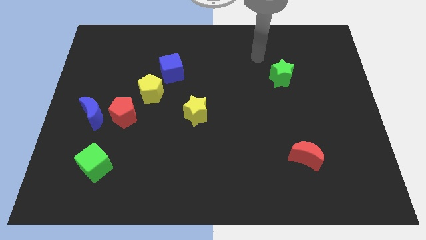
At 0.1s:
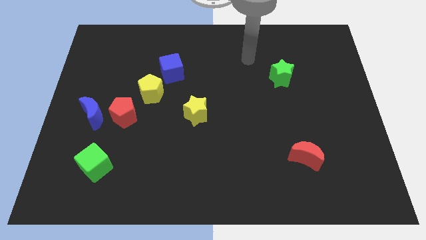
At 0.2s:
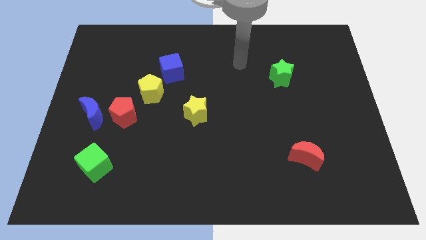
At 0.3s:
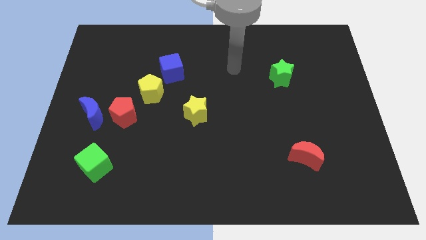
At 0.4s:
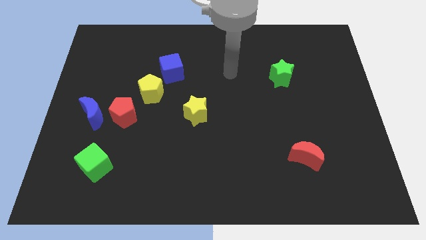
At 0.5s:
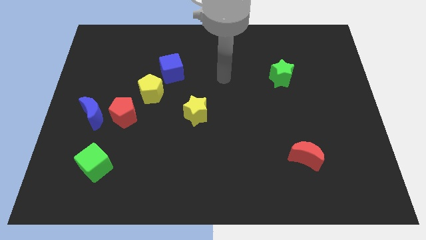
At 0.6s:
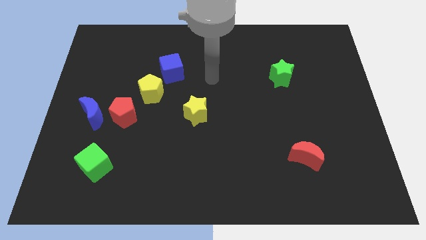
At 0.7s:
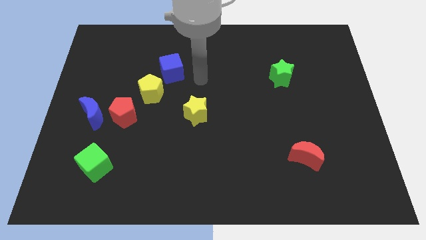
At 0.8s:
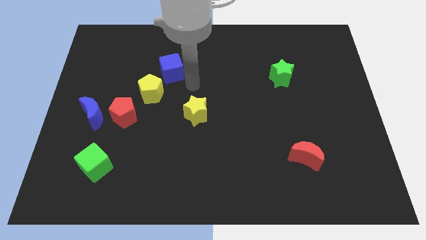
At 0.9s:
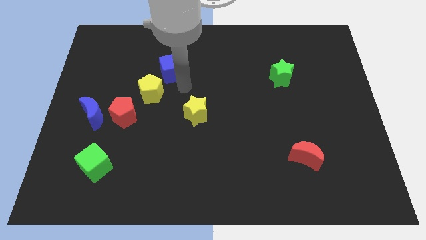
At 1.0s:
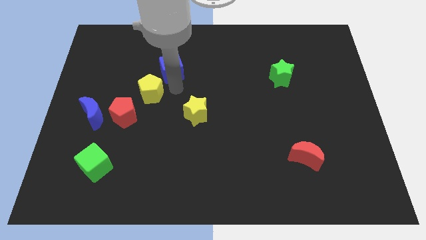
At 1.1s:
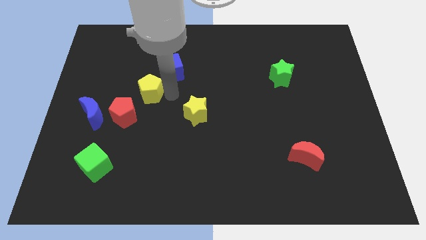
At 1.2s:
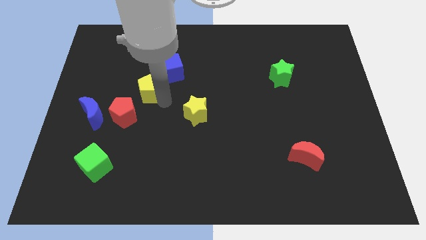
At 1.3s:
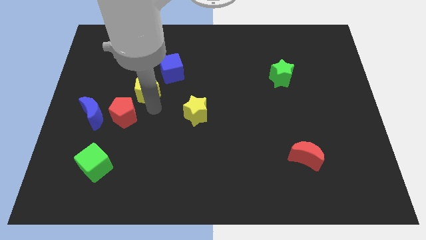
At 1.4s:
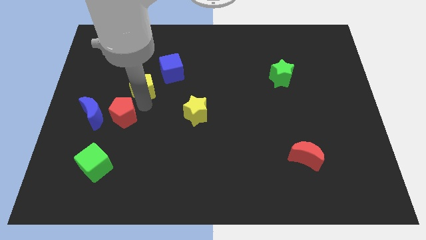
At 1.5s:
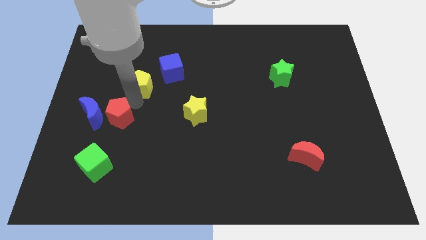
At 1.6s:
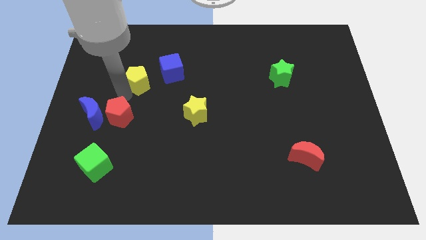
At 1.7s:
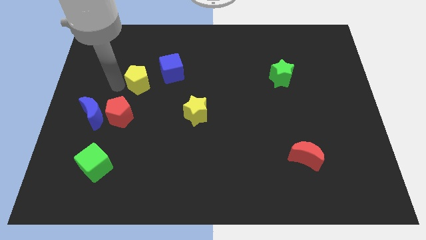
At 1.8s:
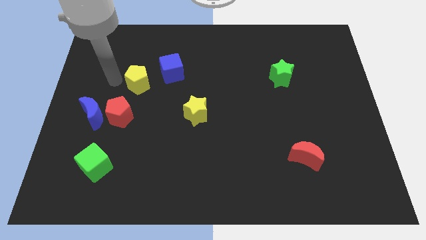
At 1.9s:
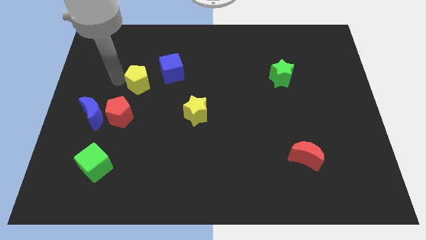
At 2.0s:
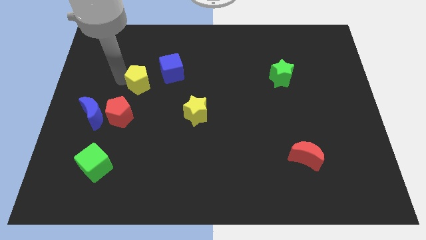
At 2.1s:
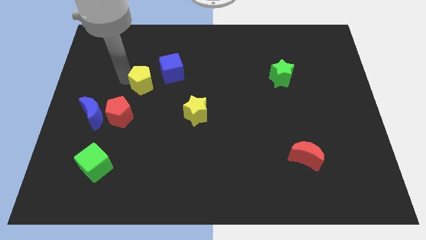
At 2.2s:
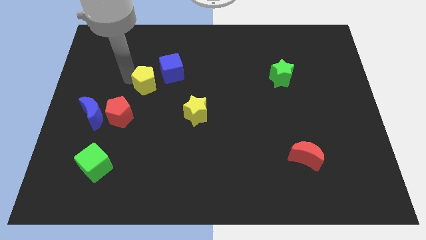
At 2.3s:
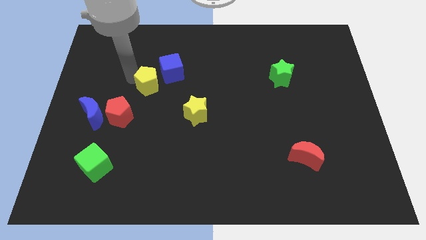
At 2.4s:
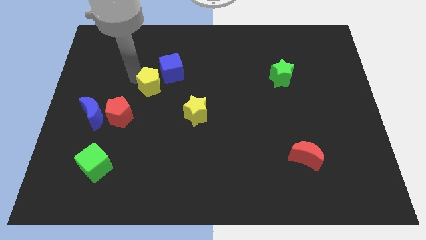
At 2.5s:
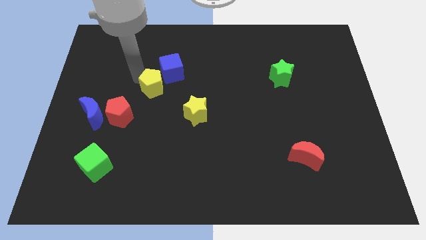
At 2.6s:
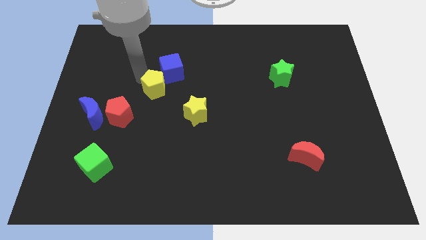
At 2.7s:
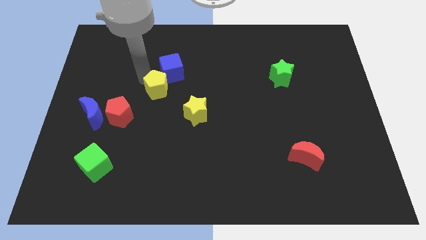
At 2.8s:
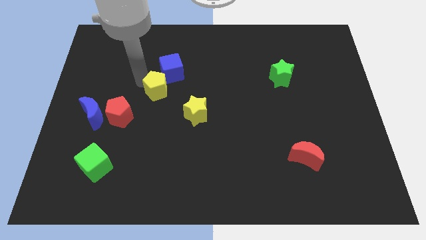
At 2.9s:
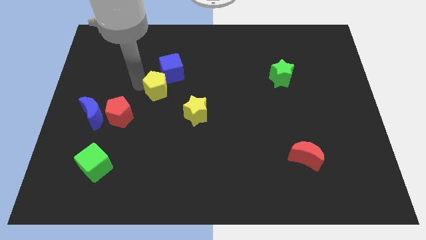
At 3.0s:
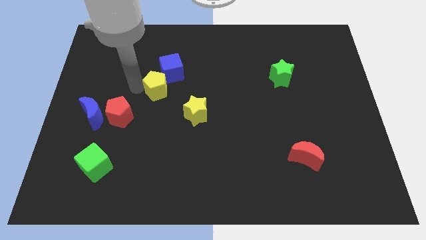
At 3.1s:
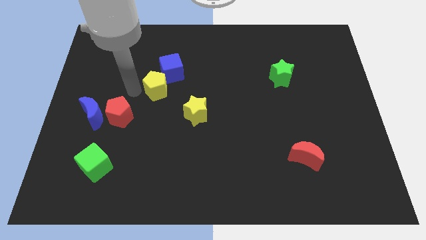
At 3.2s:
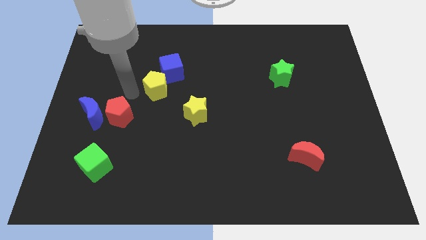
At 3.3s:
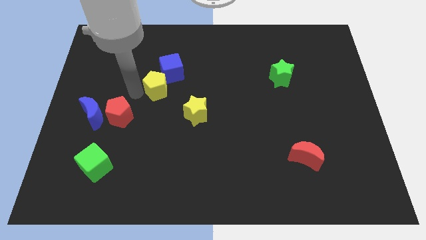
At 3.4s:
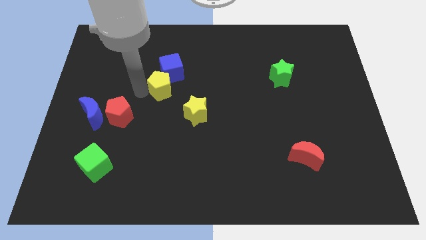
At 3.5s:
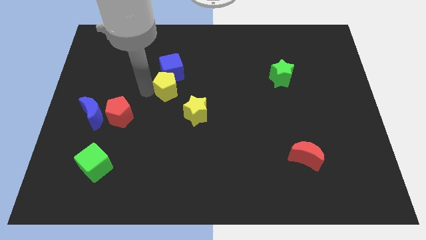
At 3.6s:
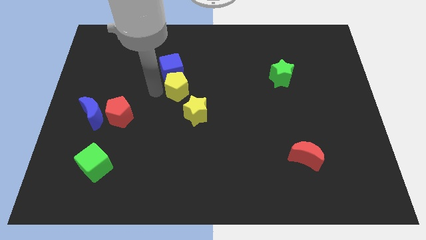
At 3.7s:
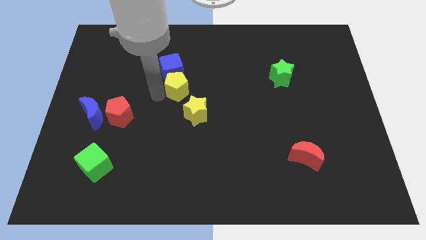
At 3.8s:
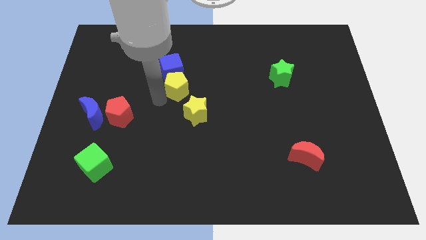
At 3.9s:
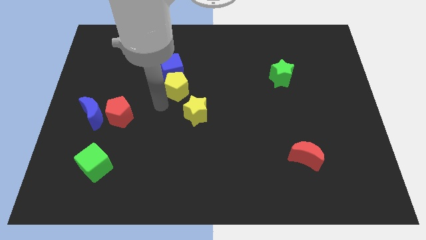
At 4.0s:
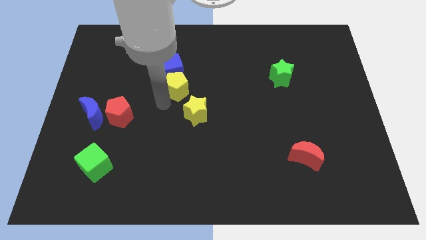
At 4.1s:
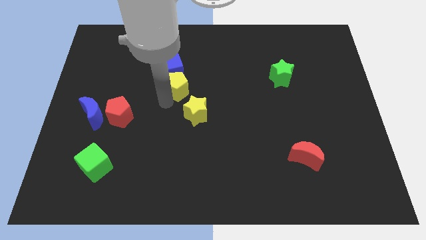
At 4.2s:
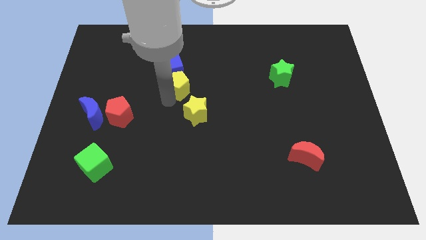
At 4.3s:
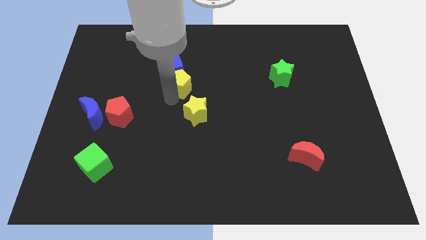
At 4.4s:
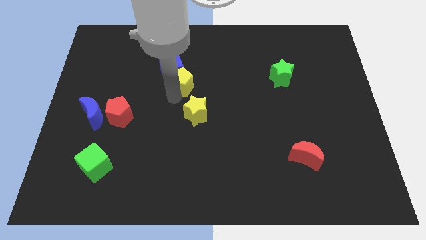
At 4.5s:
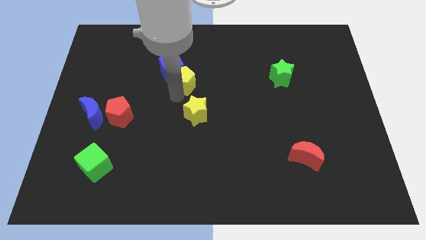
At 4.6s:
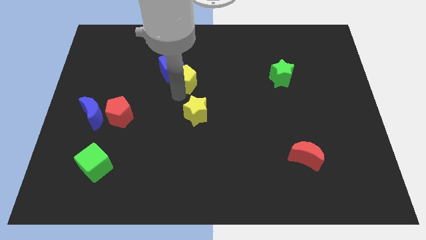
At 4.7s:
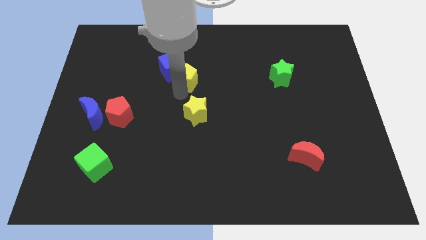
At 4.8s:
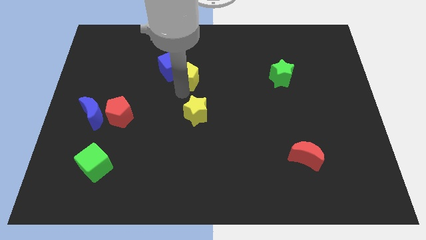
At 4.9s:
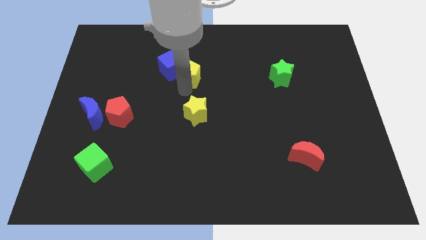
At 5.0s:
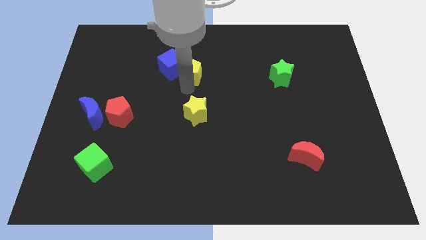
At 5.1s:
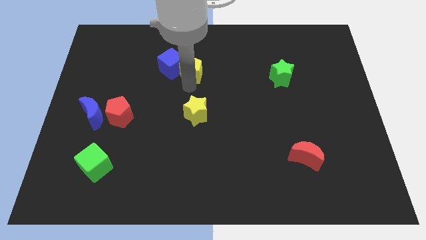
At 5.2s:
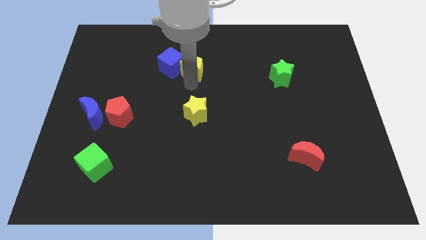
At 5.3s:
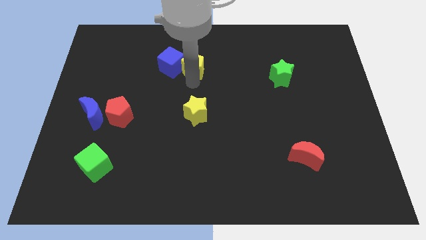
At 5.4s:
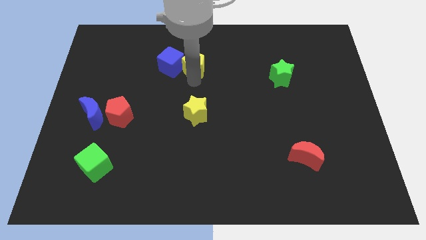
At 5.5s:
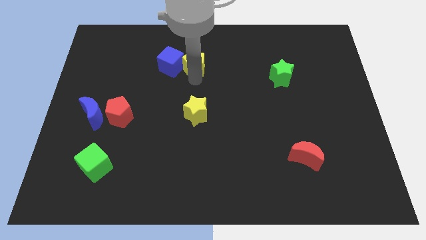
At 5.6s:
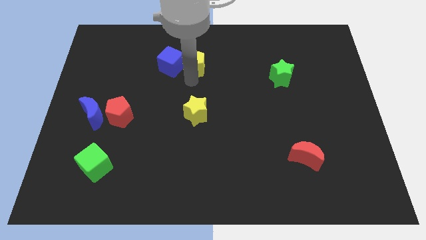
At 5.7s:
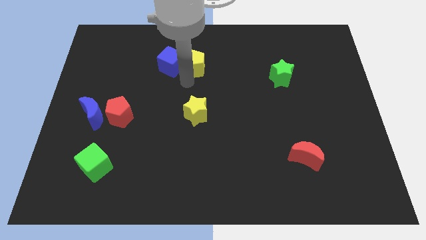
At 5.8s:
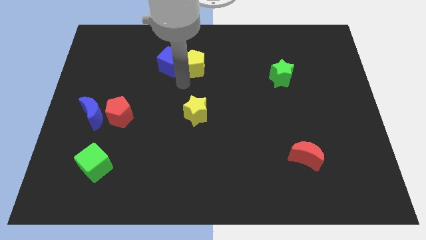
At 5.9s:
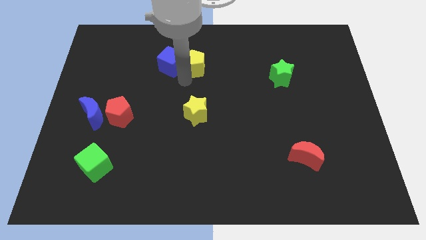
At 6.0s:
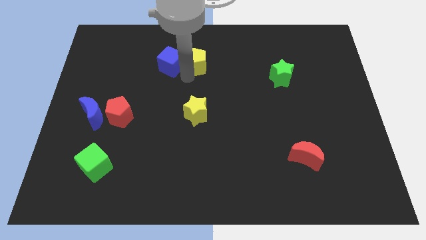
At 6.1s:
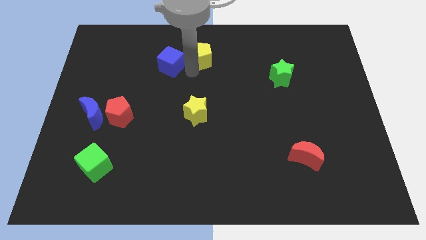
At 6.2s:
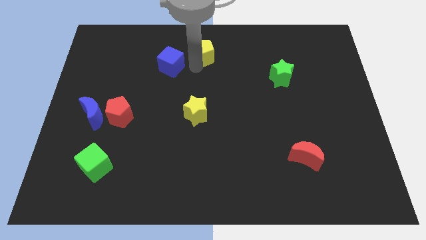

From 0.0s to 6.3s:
move the yellow pentagon to the top
